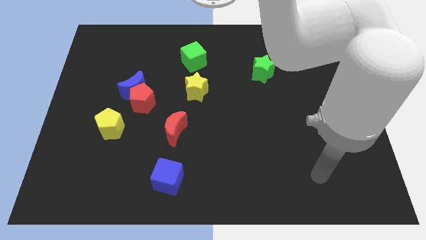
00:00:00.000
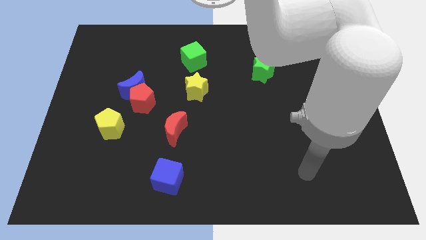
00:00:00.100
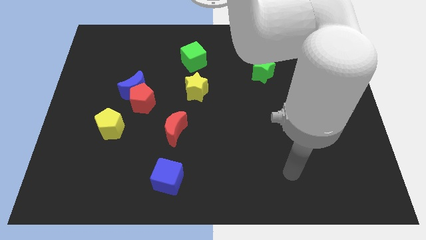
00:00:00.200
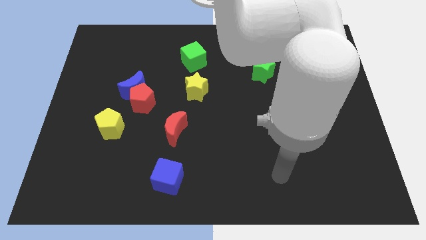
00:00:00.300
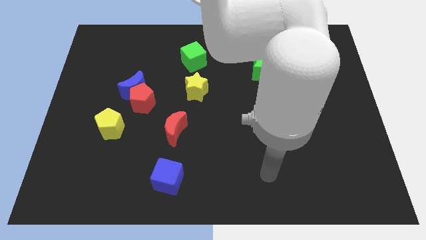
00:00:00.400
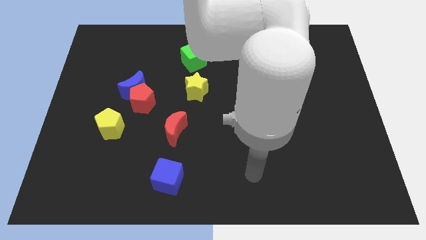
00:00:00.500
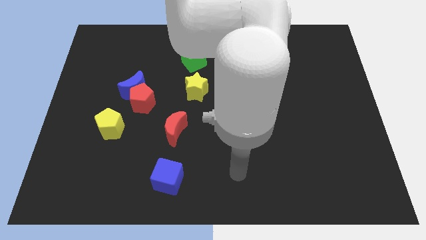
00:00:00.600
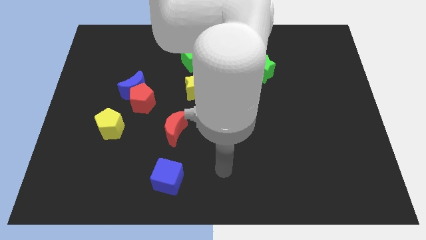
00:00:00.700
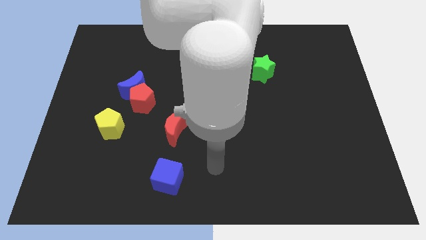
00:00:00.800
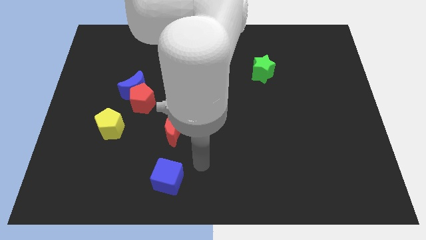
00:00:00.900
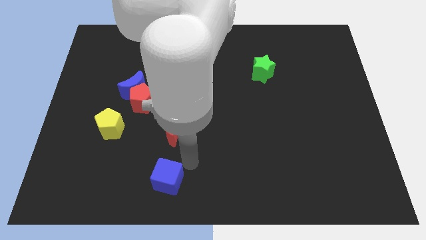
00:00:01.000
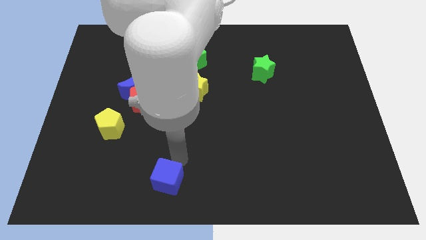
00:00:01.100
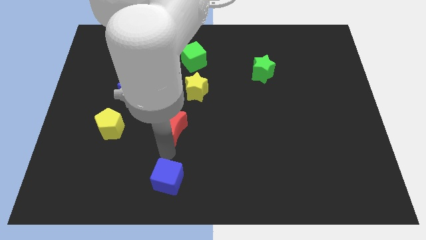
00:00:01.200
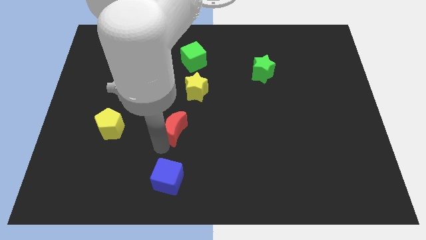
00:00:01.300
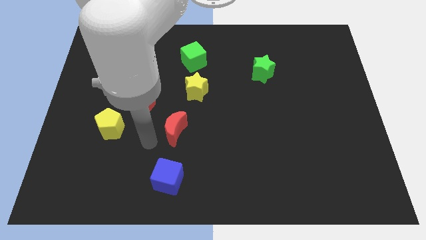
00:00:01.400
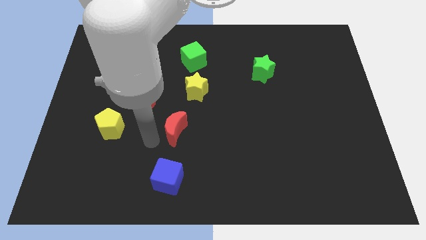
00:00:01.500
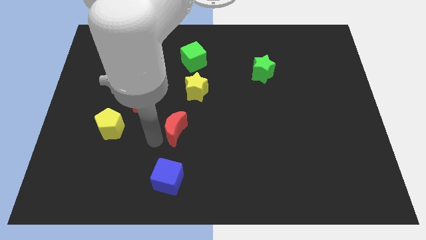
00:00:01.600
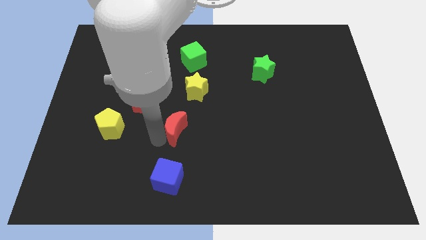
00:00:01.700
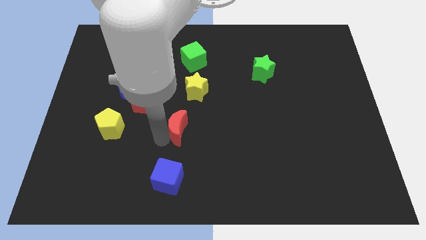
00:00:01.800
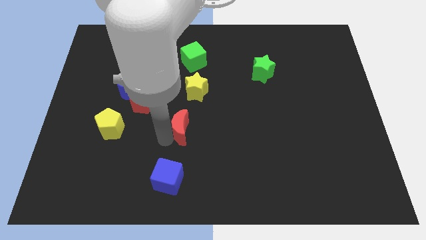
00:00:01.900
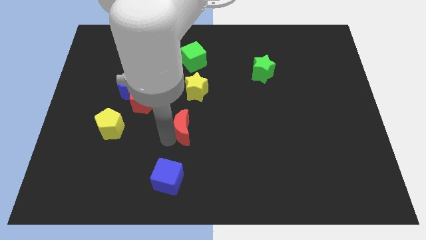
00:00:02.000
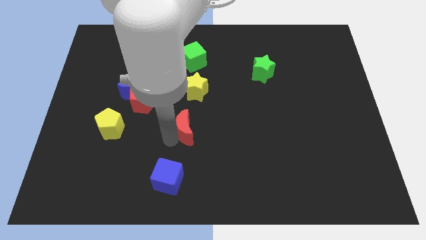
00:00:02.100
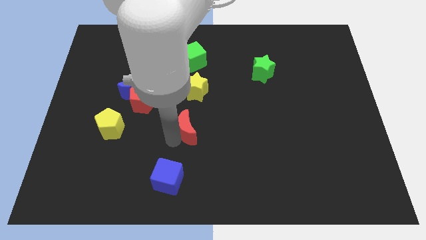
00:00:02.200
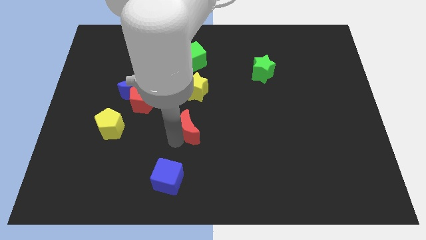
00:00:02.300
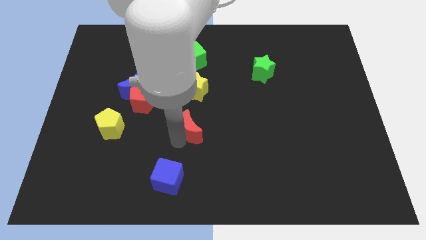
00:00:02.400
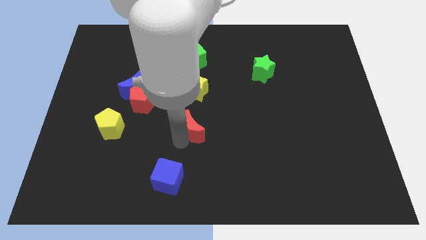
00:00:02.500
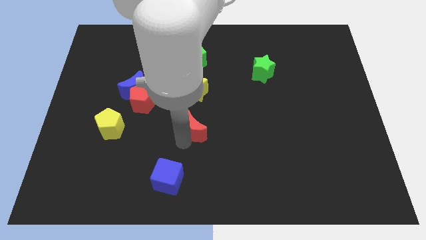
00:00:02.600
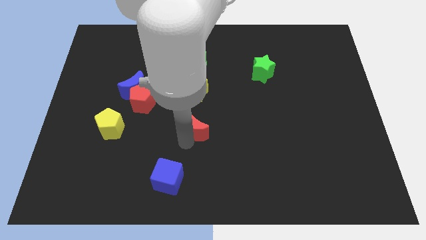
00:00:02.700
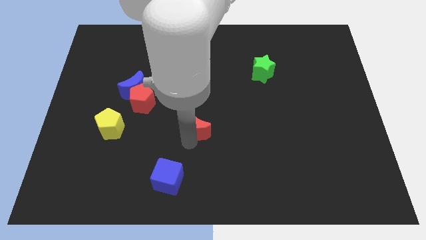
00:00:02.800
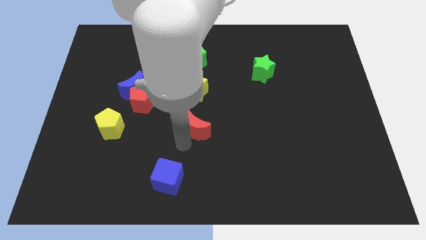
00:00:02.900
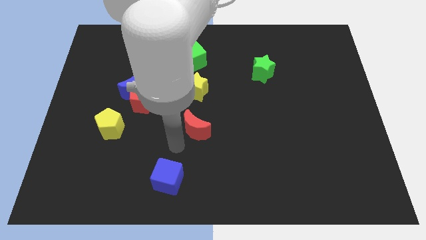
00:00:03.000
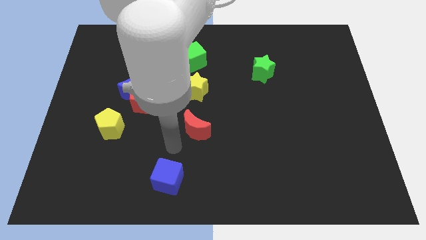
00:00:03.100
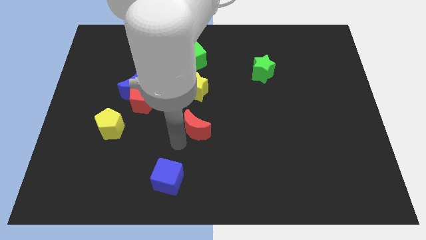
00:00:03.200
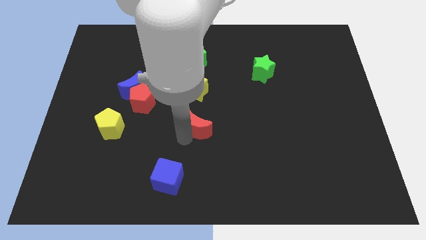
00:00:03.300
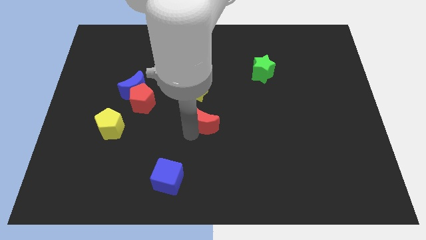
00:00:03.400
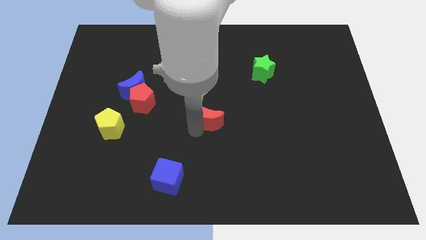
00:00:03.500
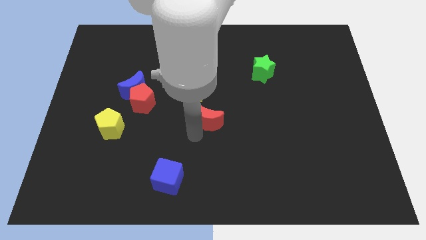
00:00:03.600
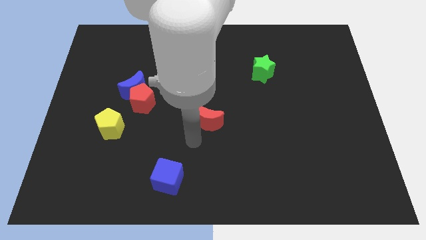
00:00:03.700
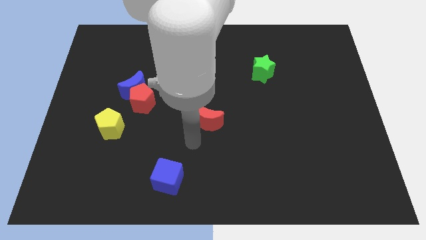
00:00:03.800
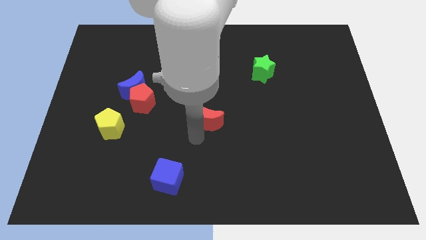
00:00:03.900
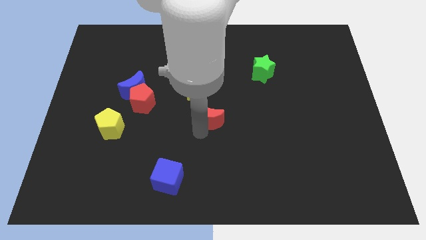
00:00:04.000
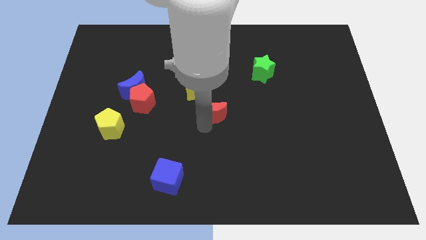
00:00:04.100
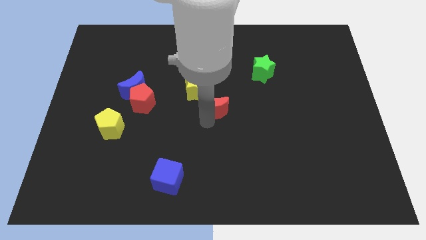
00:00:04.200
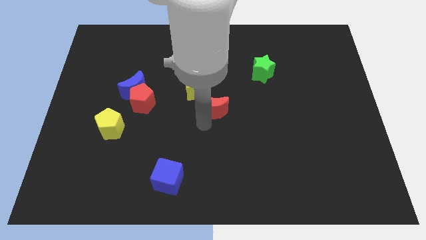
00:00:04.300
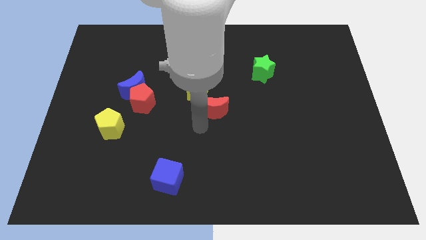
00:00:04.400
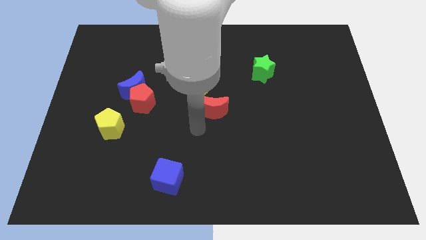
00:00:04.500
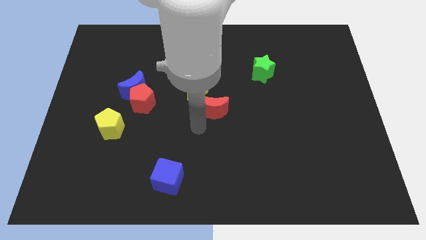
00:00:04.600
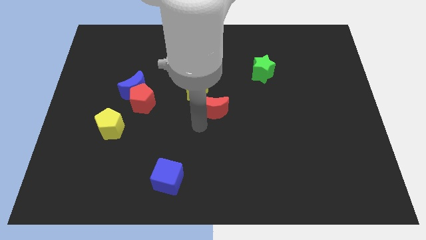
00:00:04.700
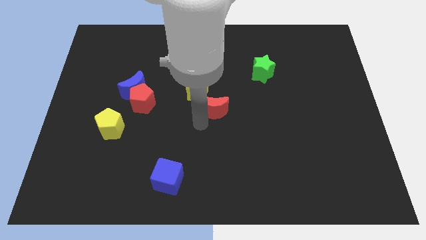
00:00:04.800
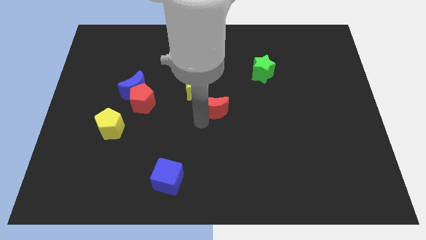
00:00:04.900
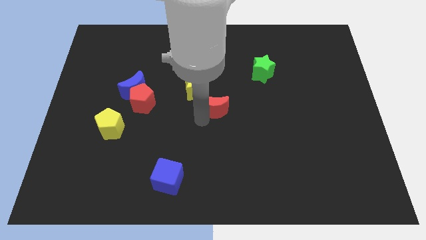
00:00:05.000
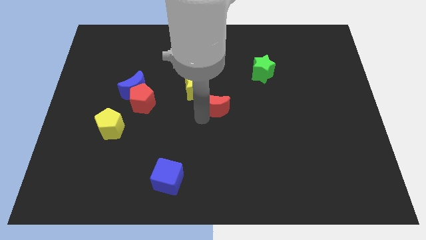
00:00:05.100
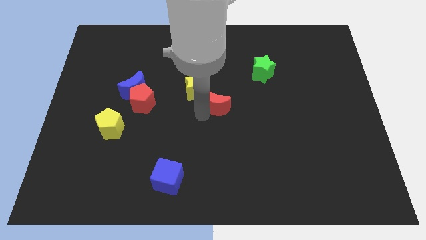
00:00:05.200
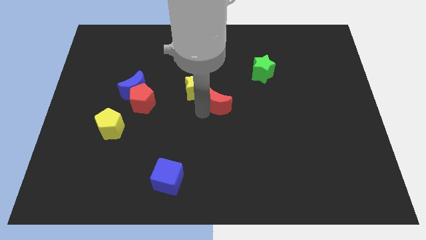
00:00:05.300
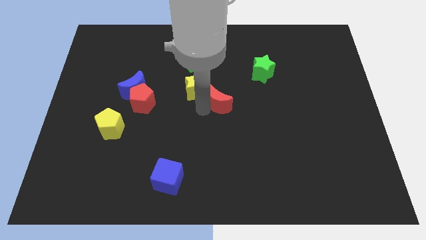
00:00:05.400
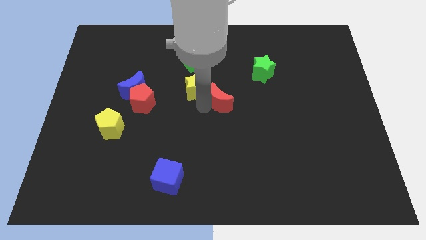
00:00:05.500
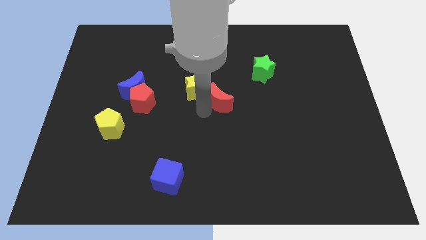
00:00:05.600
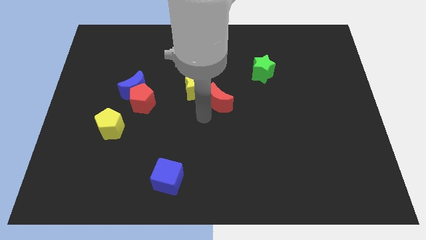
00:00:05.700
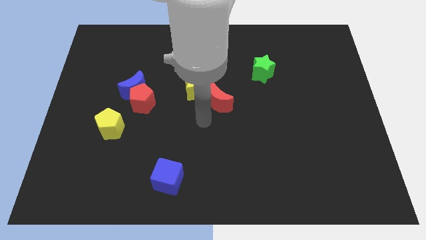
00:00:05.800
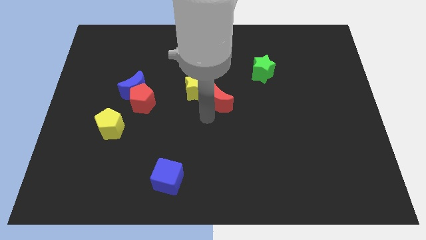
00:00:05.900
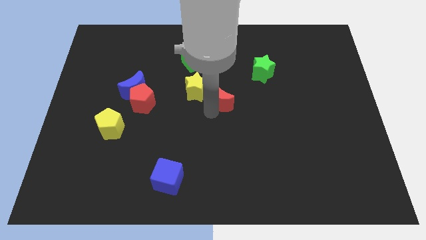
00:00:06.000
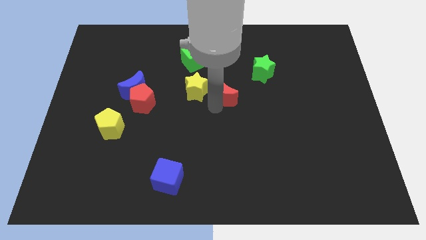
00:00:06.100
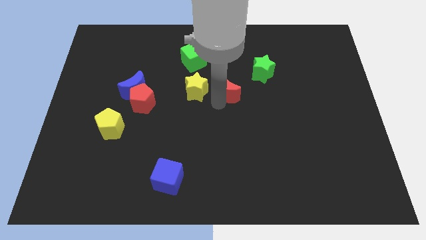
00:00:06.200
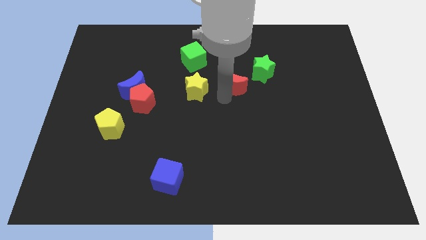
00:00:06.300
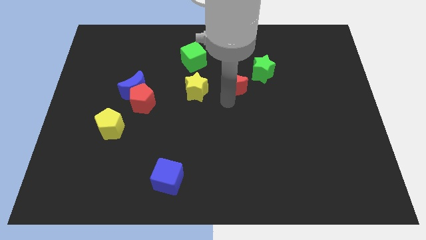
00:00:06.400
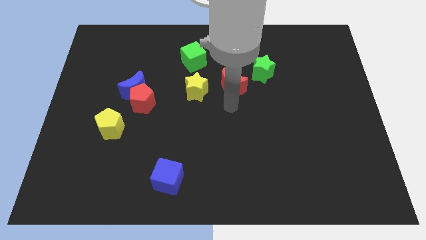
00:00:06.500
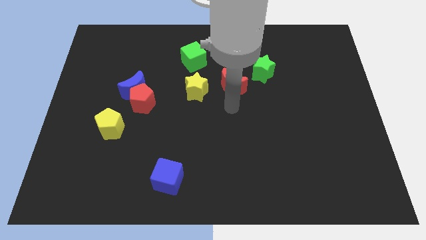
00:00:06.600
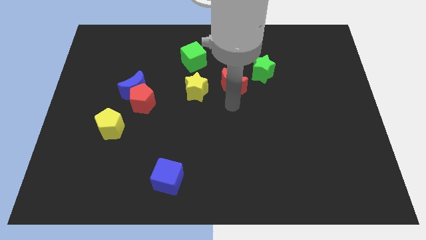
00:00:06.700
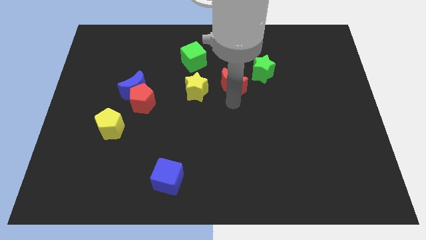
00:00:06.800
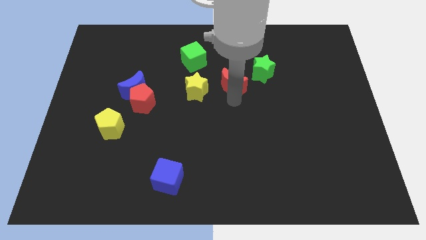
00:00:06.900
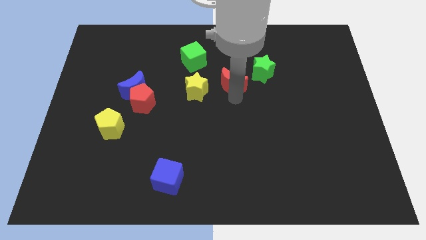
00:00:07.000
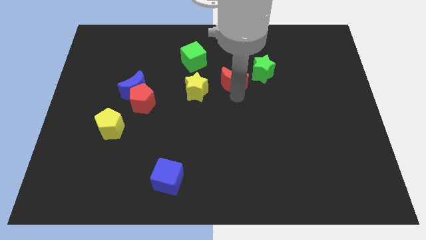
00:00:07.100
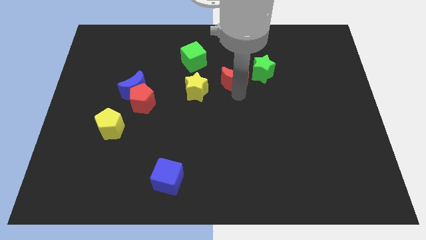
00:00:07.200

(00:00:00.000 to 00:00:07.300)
move the red moon upwards and to the right

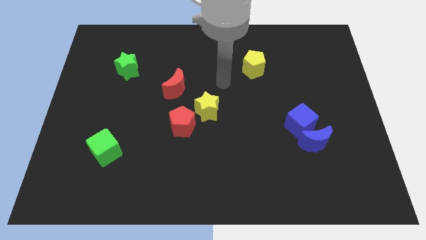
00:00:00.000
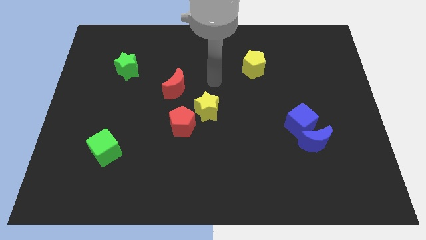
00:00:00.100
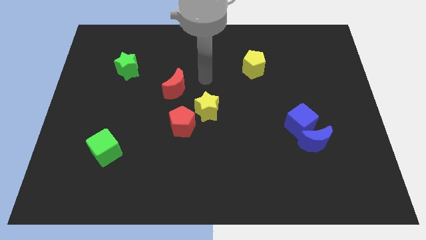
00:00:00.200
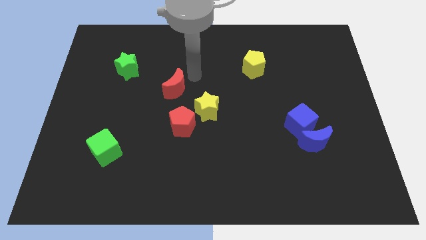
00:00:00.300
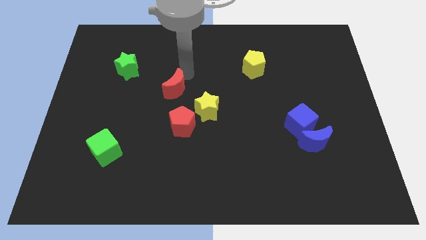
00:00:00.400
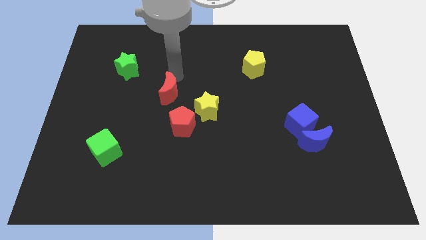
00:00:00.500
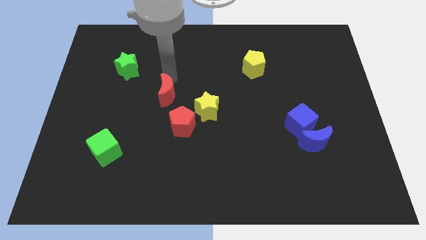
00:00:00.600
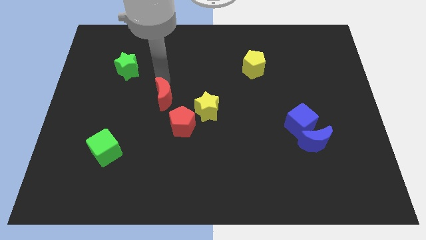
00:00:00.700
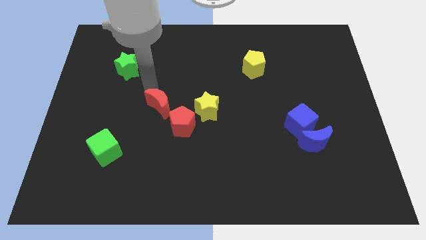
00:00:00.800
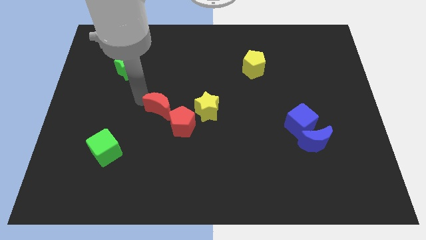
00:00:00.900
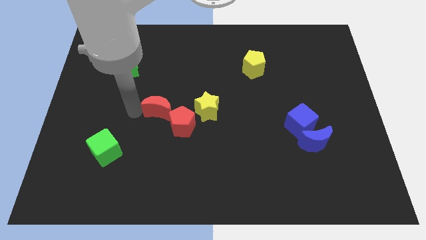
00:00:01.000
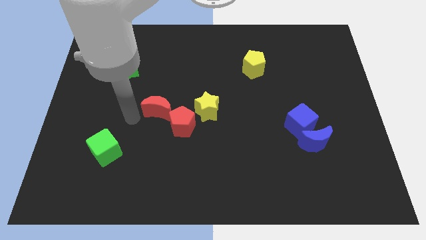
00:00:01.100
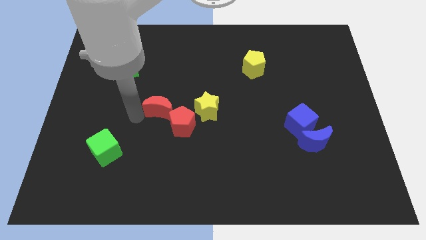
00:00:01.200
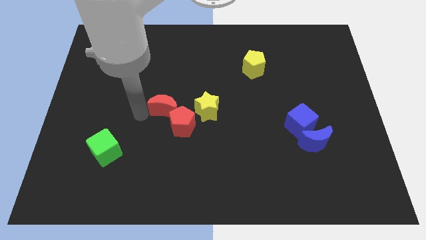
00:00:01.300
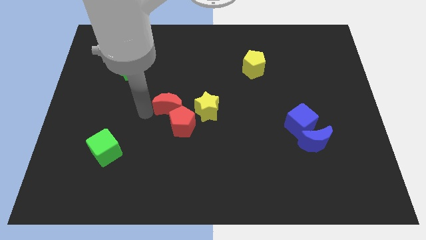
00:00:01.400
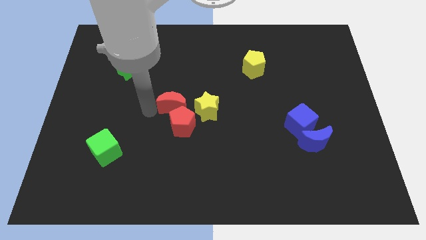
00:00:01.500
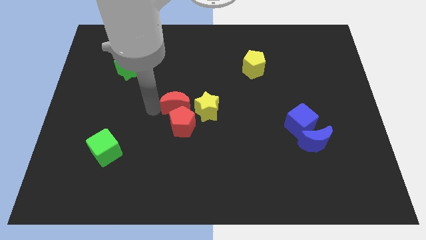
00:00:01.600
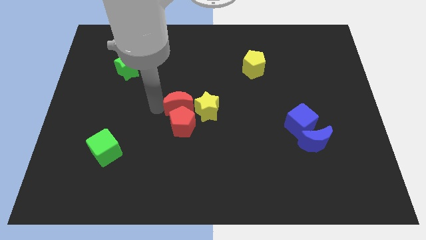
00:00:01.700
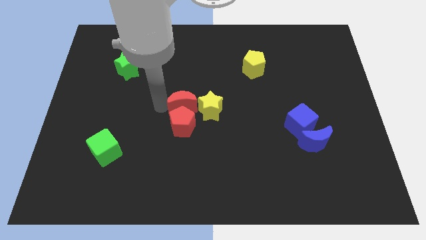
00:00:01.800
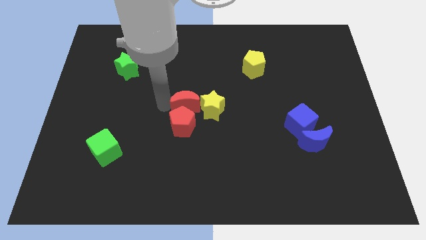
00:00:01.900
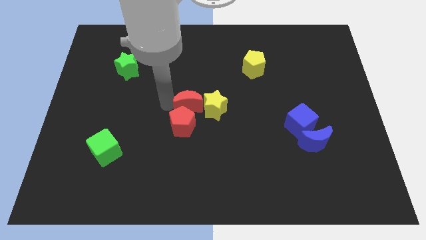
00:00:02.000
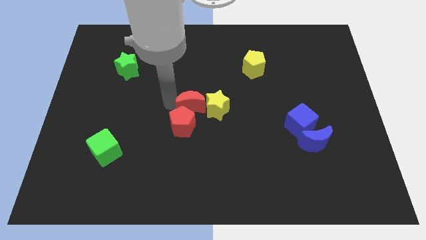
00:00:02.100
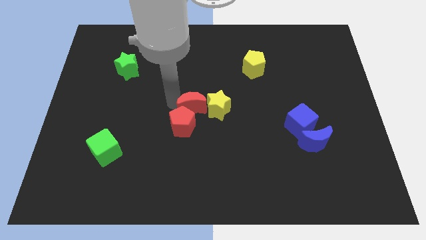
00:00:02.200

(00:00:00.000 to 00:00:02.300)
slide the red moon diagonally down and right a bit
